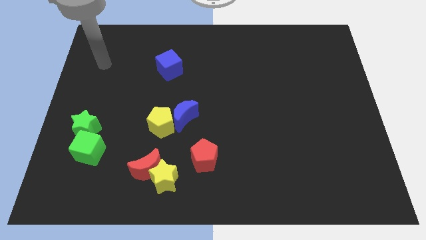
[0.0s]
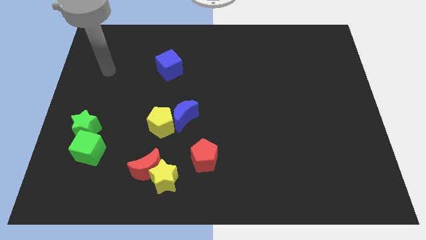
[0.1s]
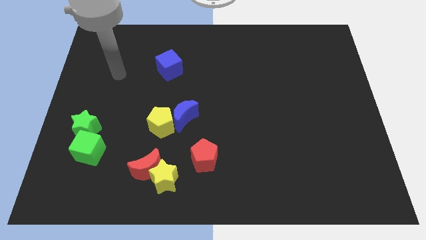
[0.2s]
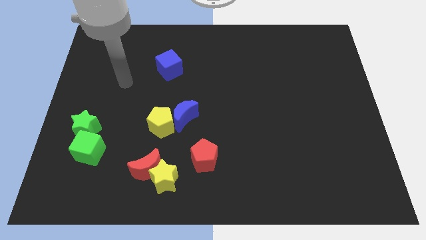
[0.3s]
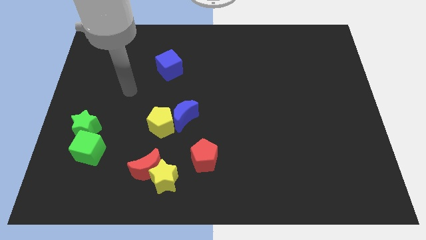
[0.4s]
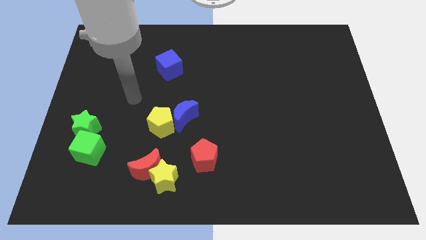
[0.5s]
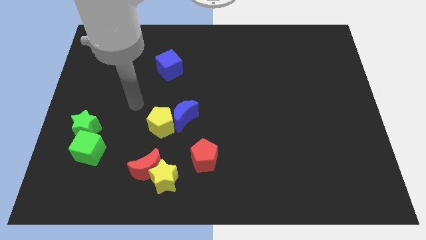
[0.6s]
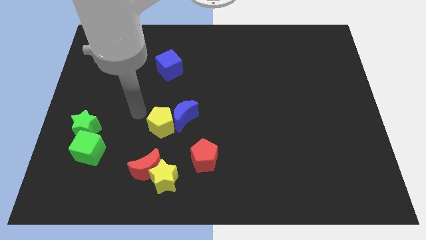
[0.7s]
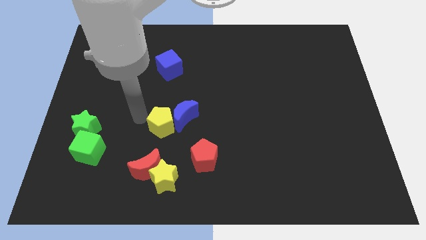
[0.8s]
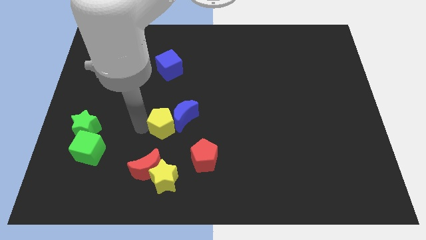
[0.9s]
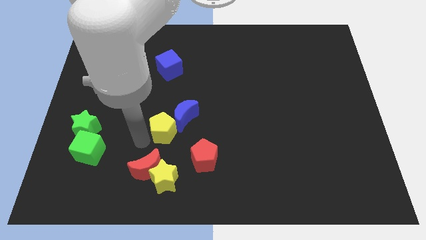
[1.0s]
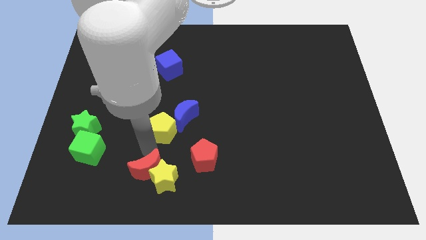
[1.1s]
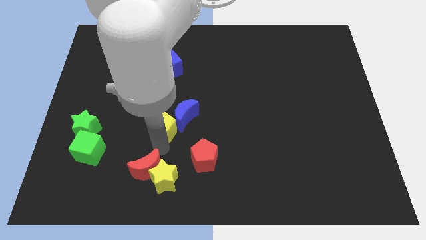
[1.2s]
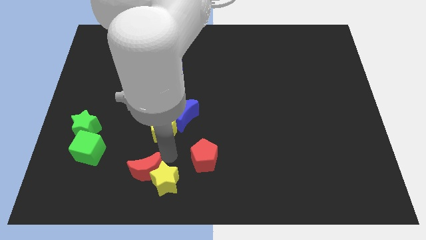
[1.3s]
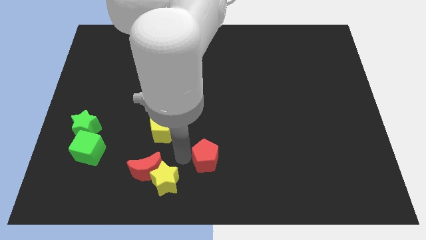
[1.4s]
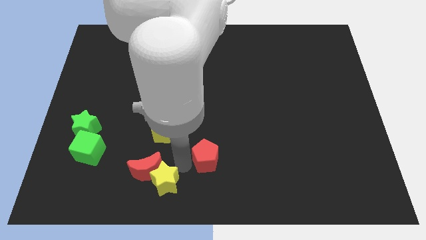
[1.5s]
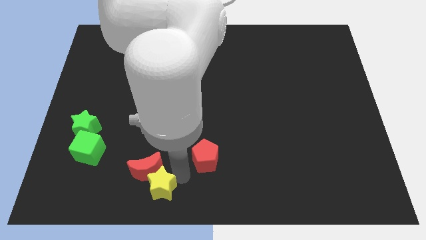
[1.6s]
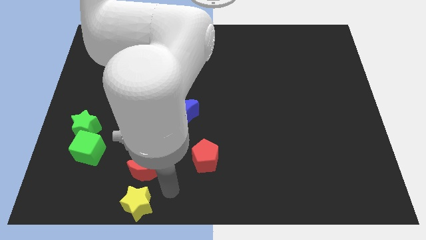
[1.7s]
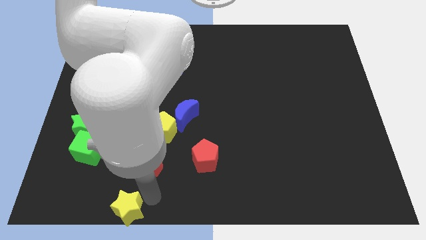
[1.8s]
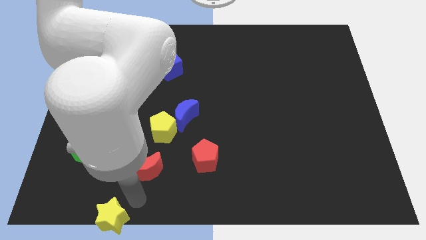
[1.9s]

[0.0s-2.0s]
pull the red moon apart from the yellow star

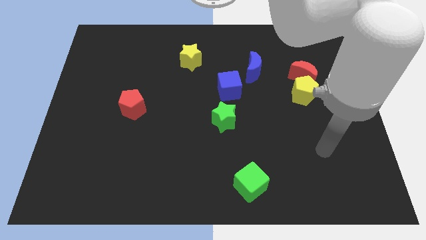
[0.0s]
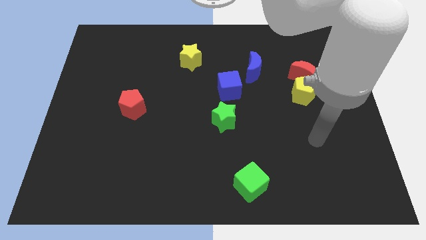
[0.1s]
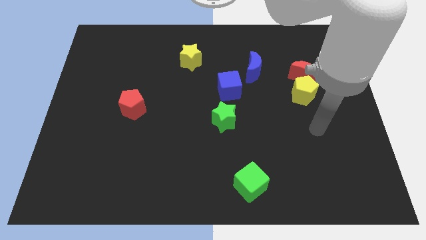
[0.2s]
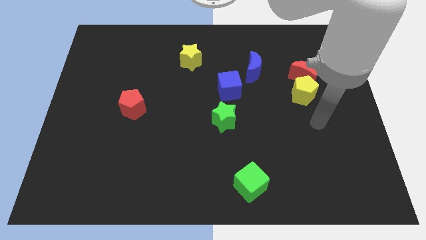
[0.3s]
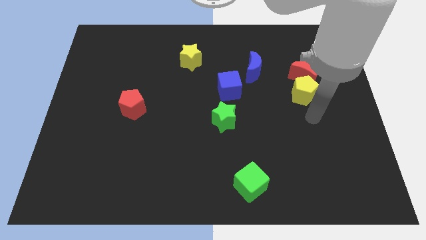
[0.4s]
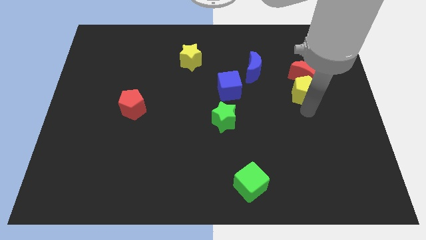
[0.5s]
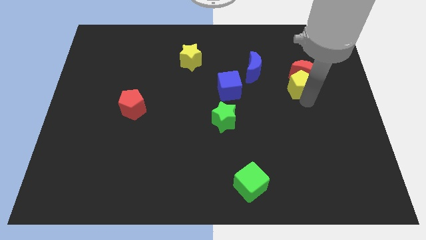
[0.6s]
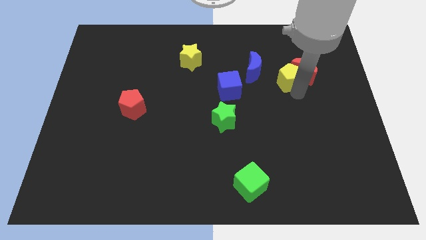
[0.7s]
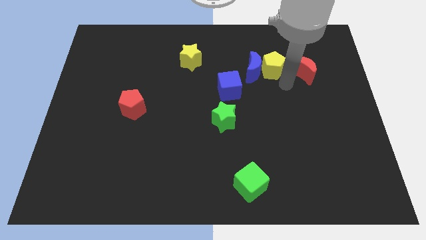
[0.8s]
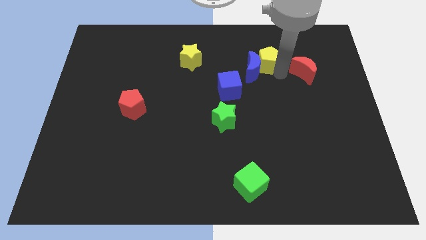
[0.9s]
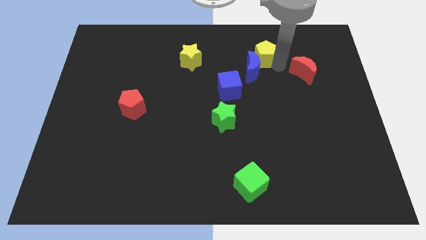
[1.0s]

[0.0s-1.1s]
move the red moon away from the yellow pentagon

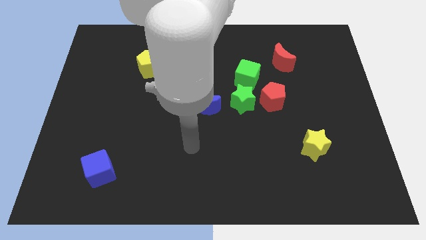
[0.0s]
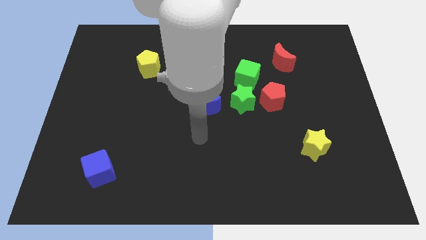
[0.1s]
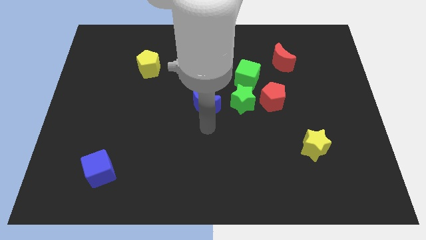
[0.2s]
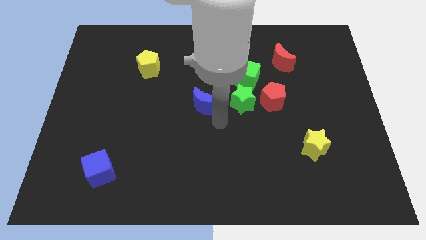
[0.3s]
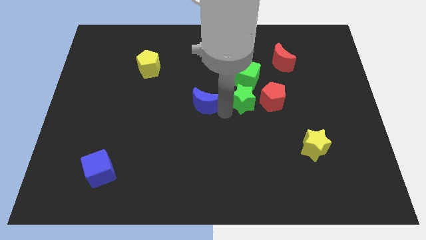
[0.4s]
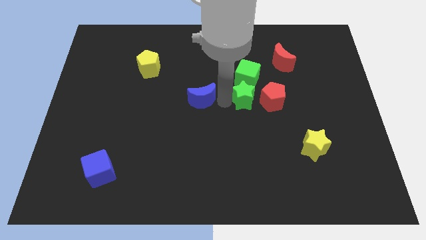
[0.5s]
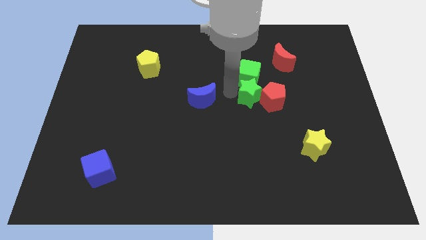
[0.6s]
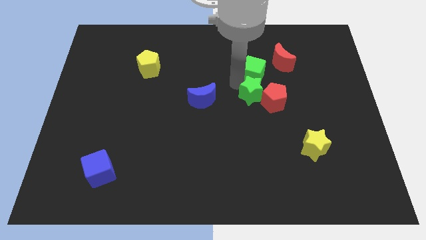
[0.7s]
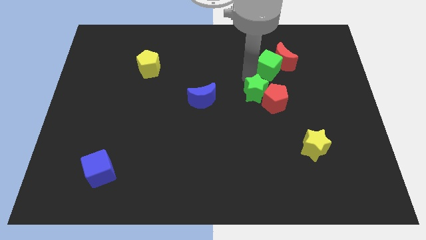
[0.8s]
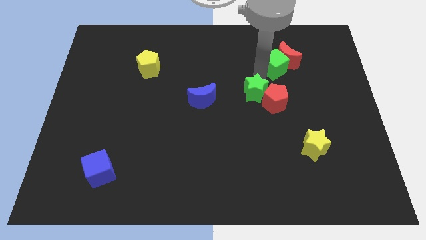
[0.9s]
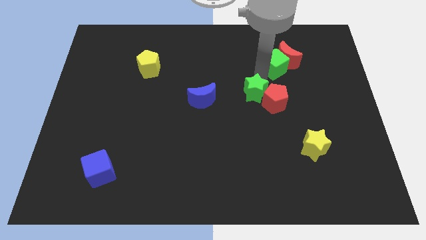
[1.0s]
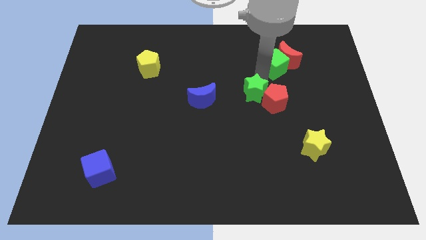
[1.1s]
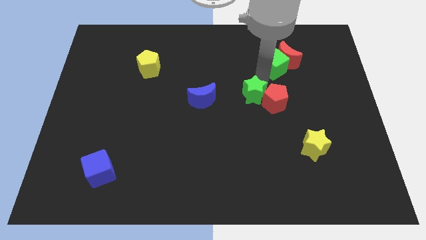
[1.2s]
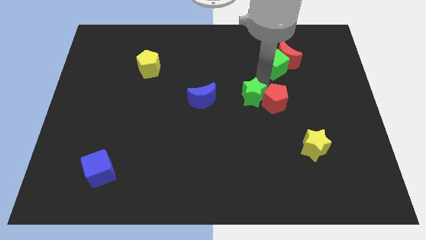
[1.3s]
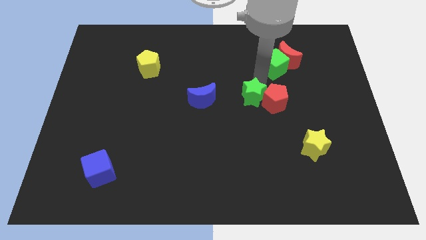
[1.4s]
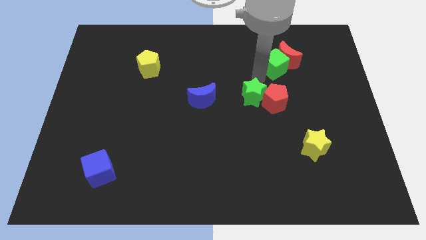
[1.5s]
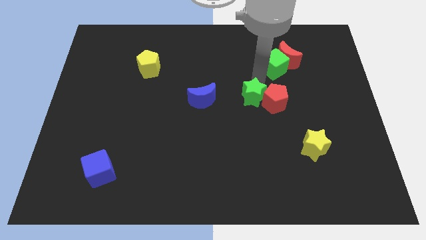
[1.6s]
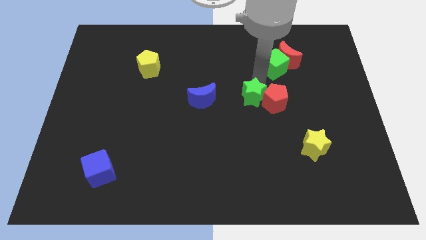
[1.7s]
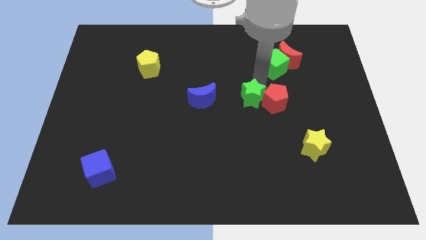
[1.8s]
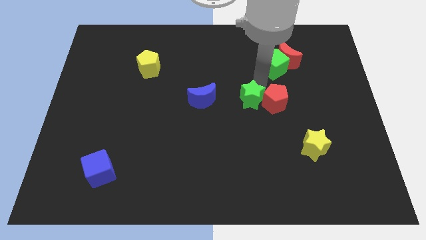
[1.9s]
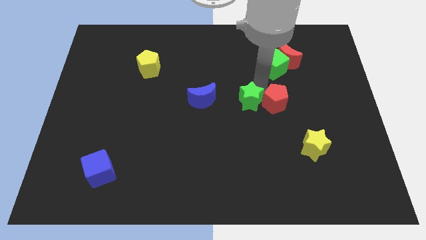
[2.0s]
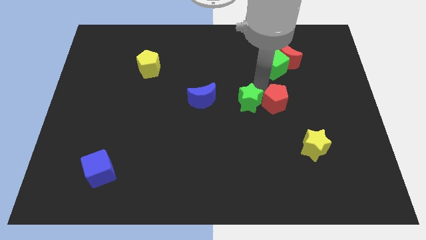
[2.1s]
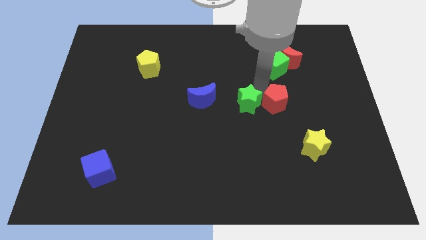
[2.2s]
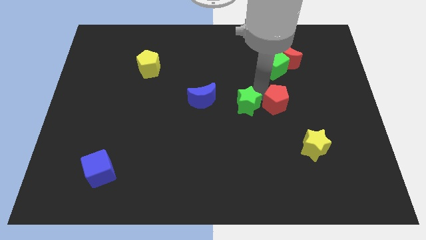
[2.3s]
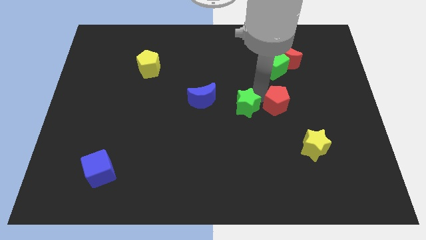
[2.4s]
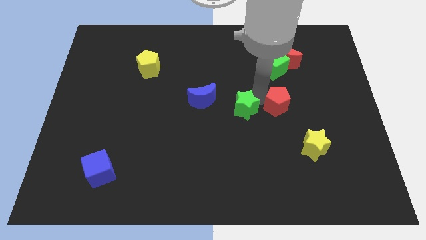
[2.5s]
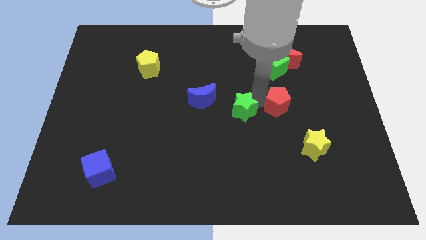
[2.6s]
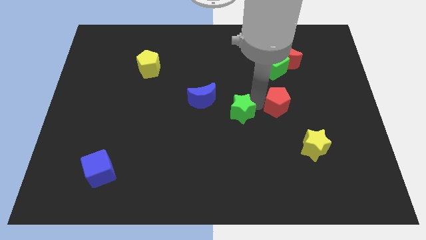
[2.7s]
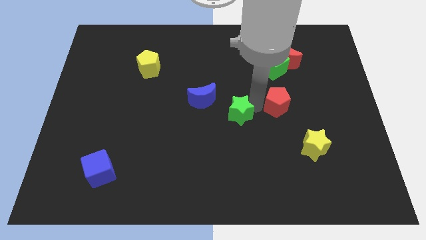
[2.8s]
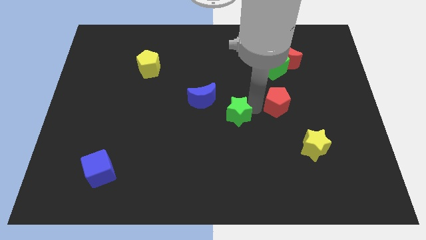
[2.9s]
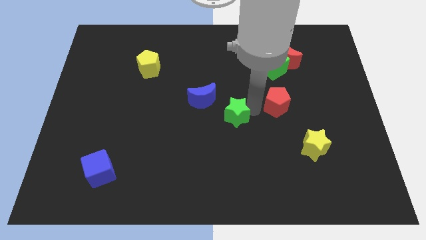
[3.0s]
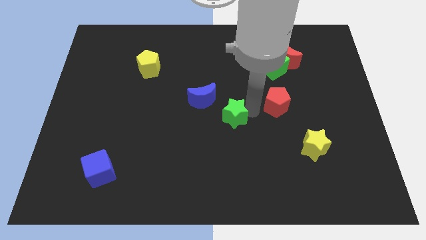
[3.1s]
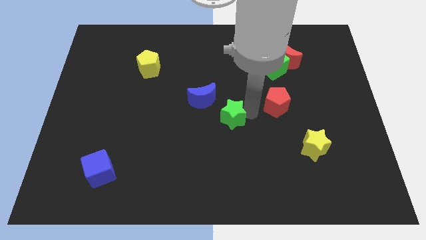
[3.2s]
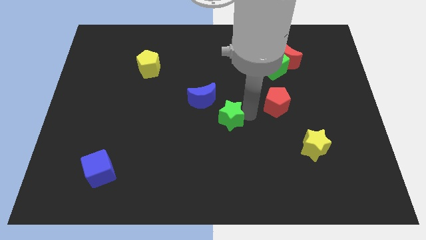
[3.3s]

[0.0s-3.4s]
pull the green star apart from the red pentagon, green cube, and blue moon

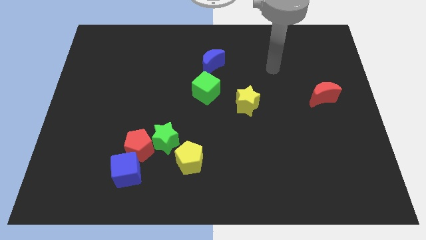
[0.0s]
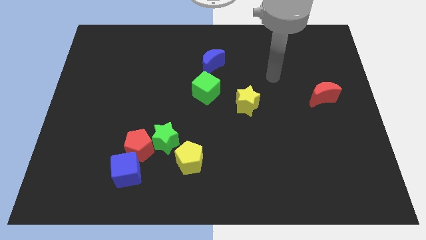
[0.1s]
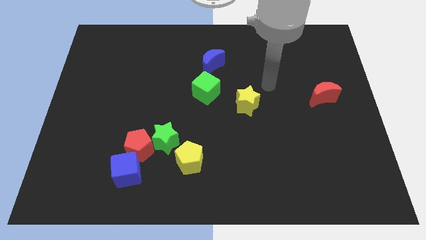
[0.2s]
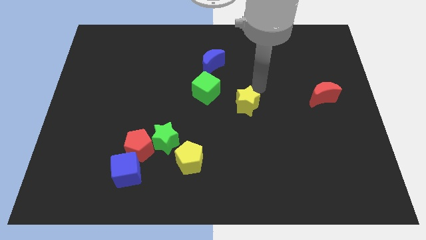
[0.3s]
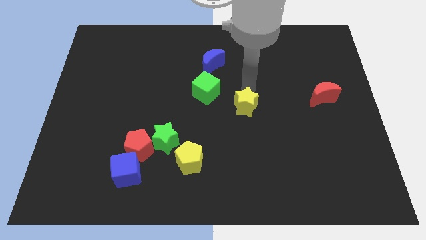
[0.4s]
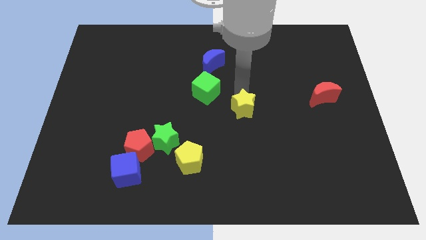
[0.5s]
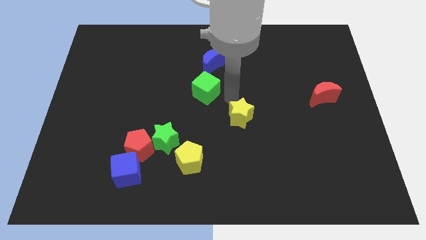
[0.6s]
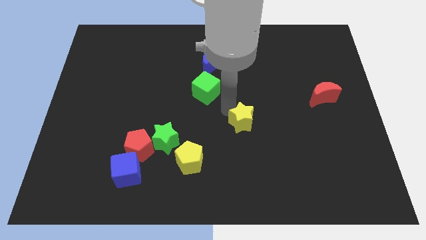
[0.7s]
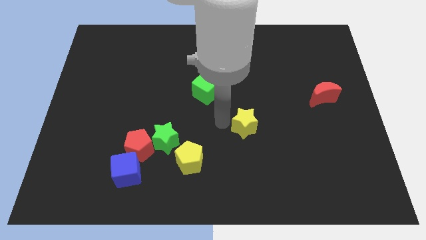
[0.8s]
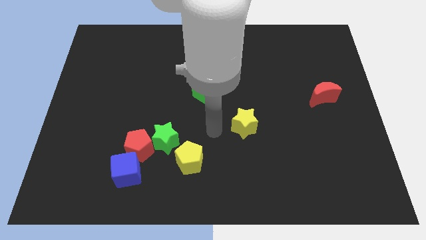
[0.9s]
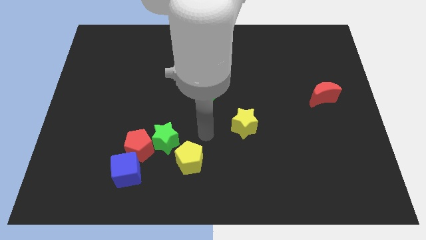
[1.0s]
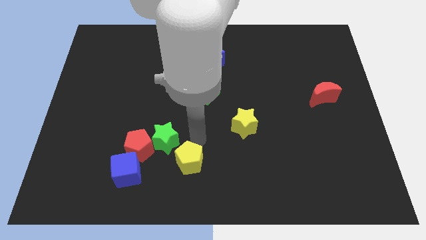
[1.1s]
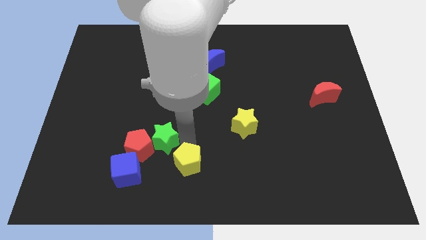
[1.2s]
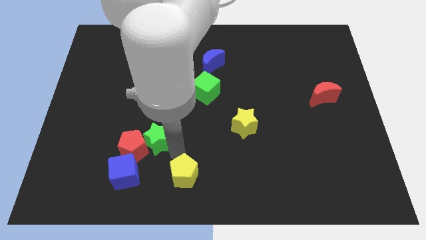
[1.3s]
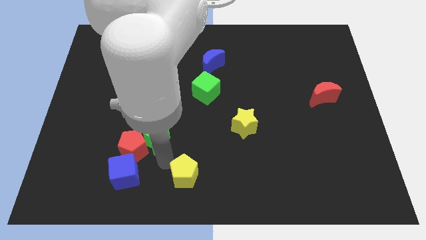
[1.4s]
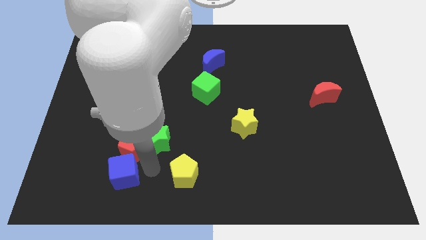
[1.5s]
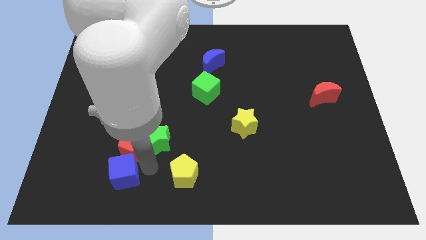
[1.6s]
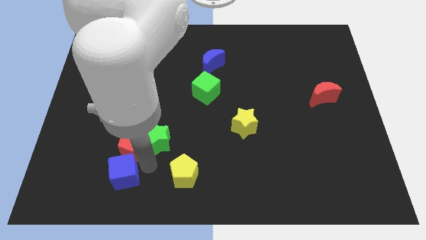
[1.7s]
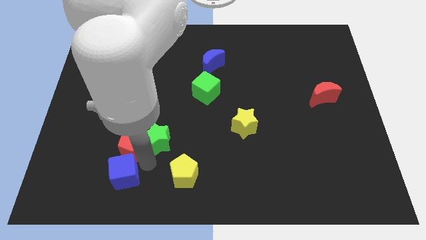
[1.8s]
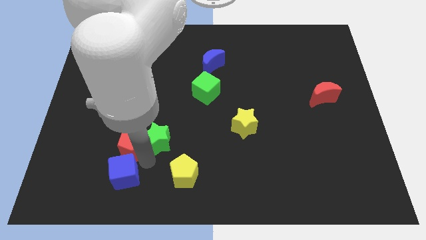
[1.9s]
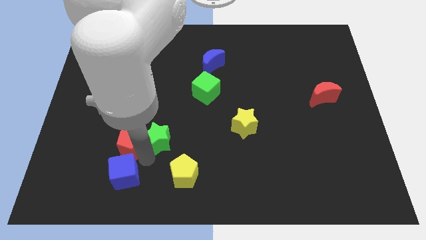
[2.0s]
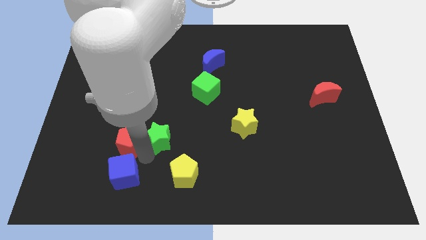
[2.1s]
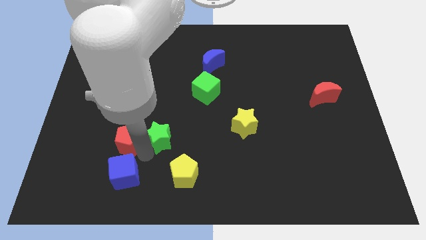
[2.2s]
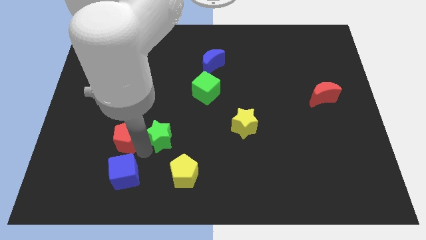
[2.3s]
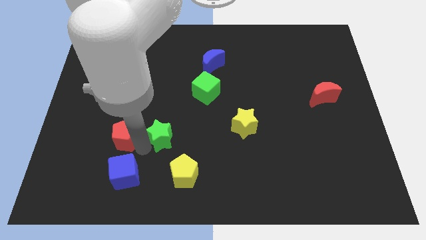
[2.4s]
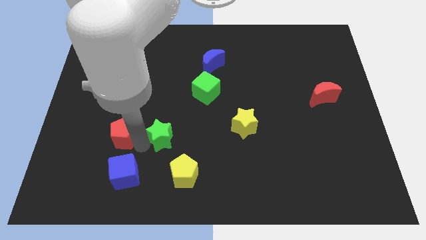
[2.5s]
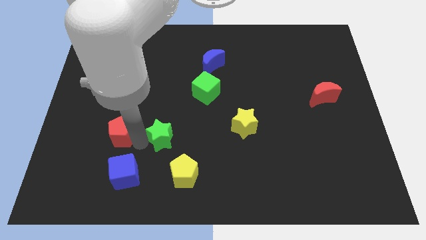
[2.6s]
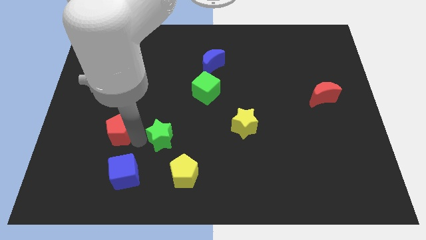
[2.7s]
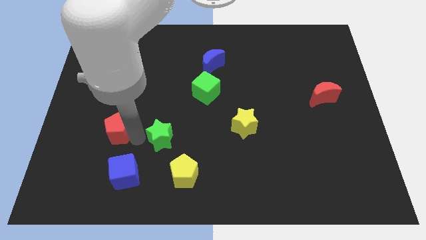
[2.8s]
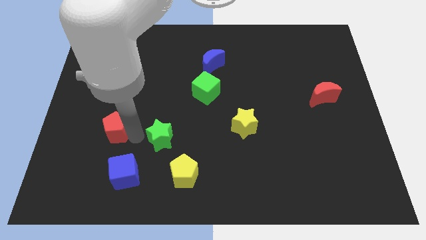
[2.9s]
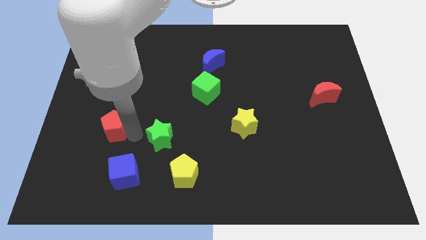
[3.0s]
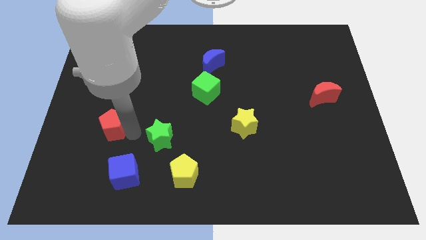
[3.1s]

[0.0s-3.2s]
move the red pentagon away from the green star and blue cube
